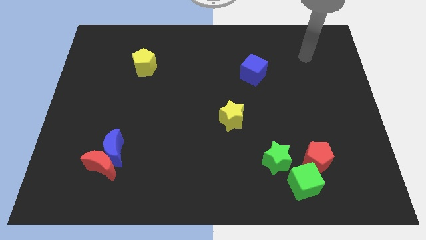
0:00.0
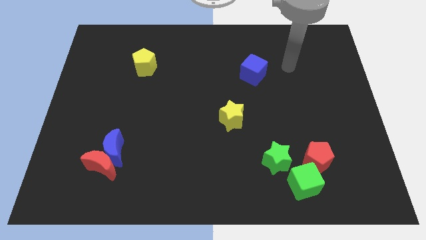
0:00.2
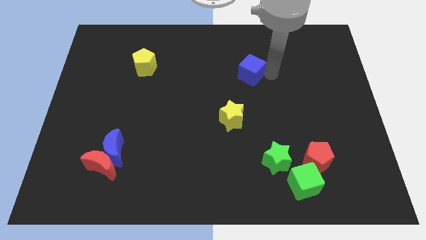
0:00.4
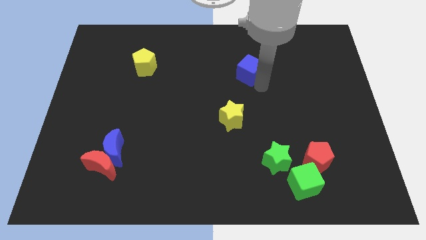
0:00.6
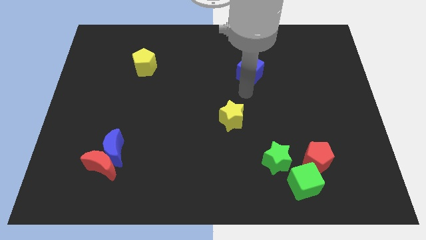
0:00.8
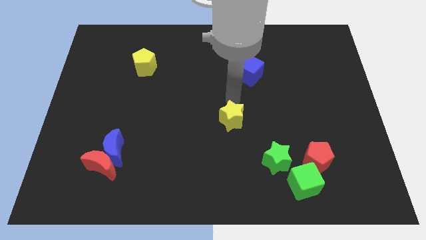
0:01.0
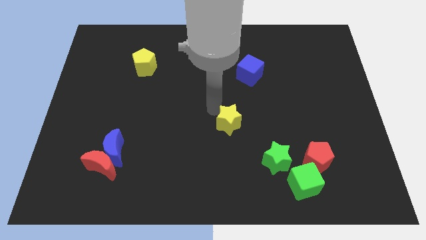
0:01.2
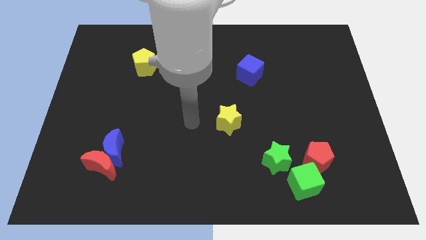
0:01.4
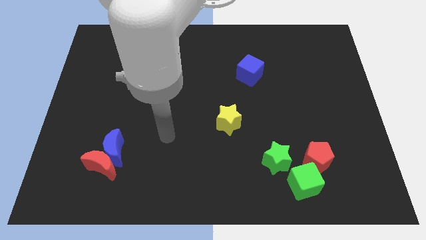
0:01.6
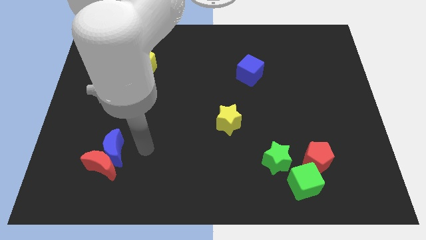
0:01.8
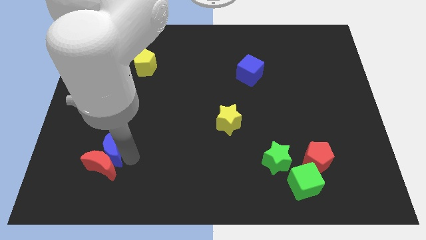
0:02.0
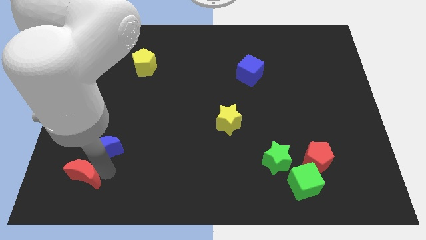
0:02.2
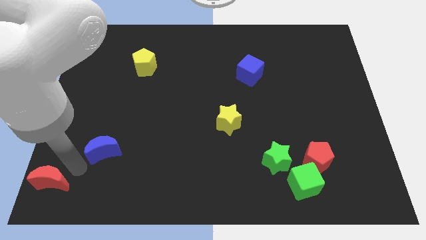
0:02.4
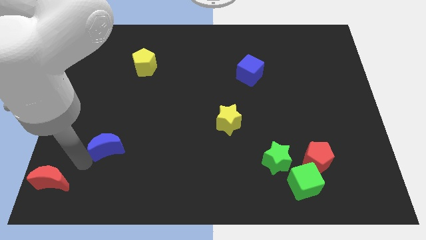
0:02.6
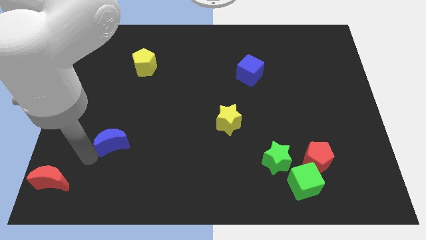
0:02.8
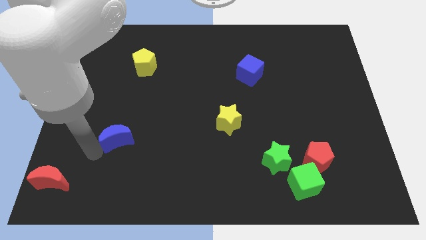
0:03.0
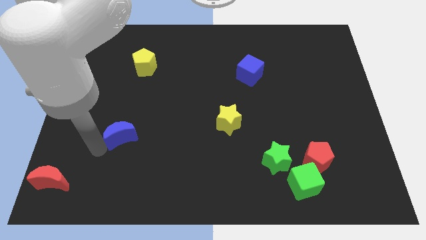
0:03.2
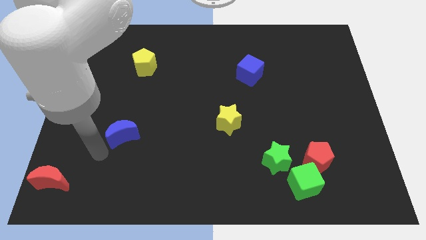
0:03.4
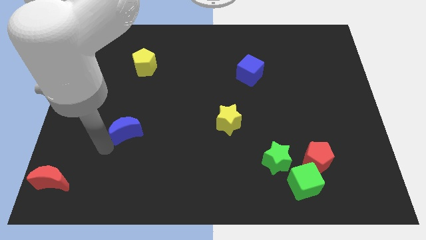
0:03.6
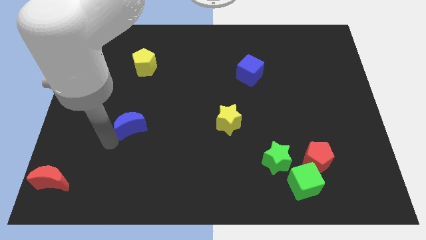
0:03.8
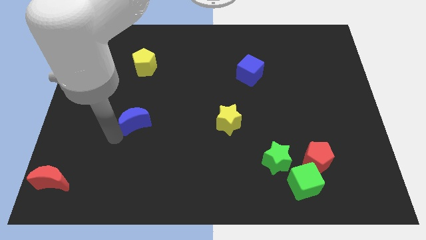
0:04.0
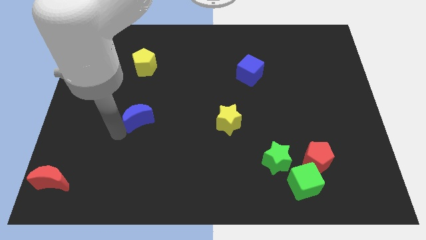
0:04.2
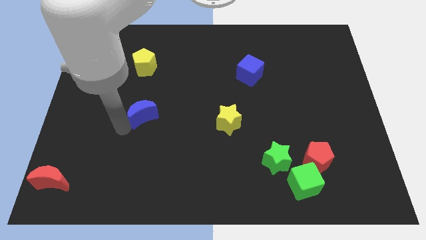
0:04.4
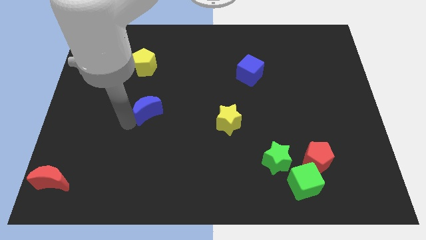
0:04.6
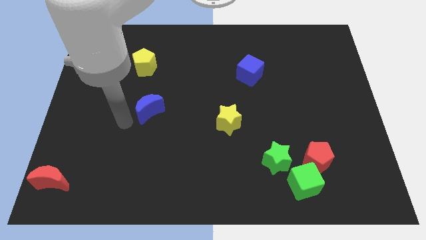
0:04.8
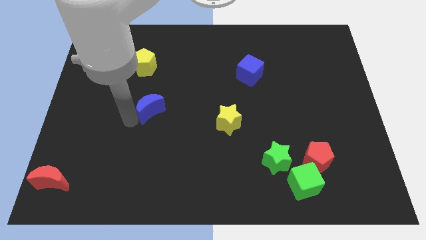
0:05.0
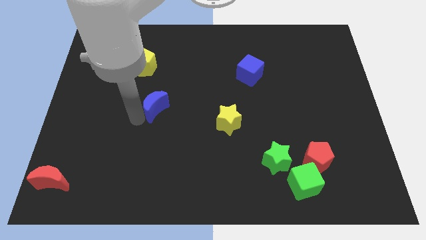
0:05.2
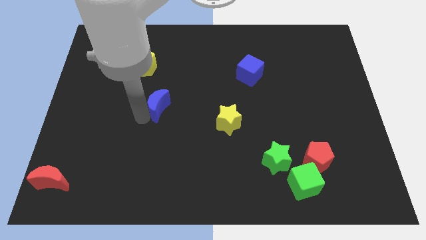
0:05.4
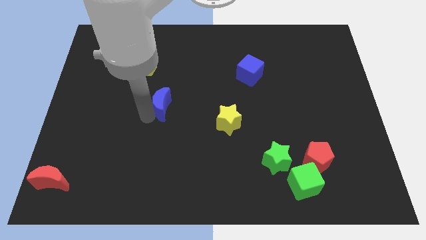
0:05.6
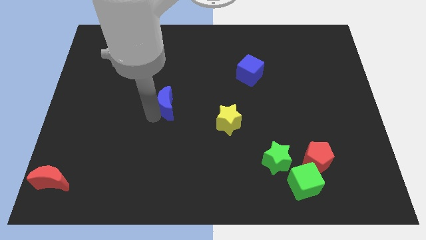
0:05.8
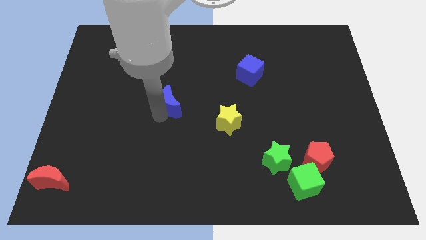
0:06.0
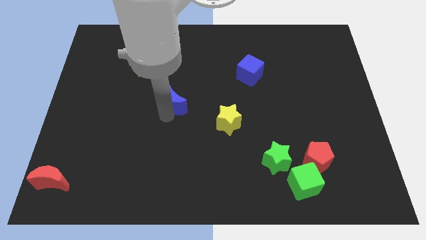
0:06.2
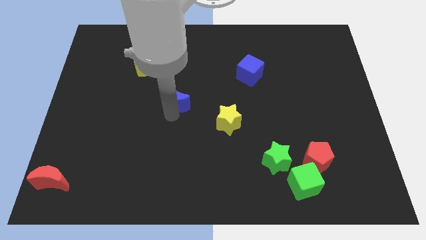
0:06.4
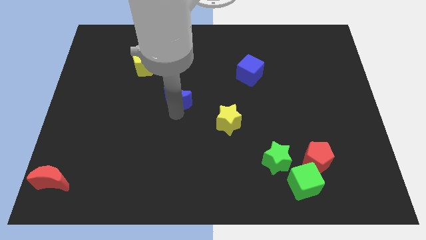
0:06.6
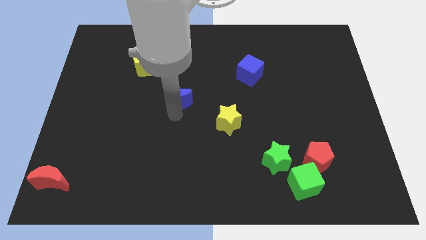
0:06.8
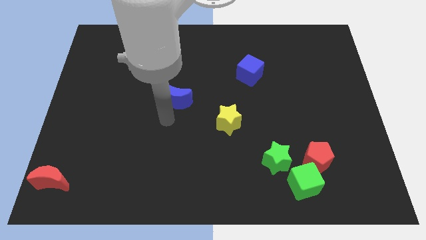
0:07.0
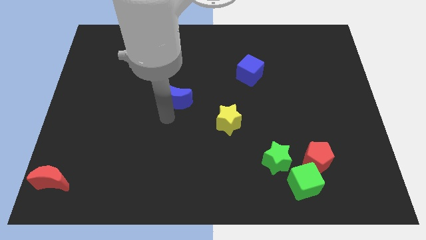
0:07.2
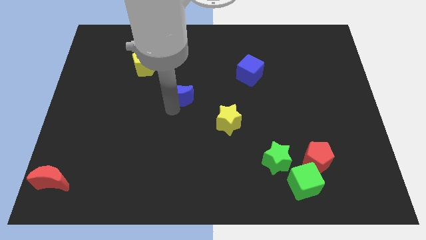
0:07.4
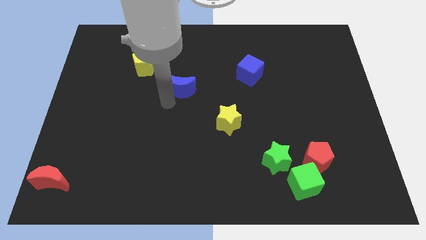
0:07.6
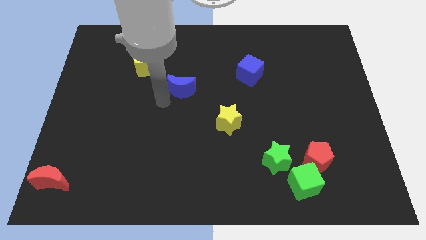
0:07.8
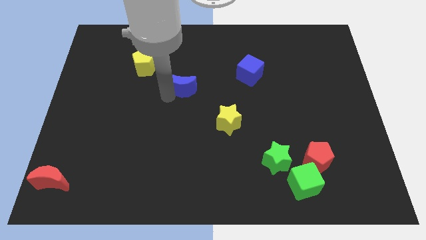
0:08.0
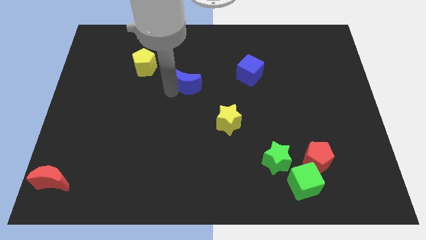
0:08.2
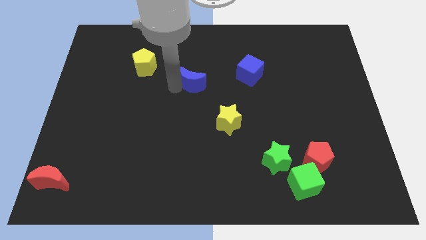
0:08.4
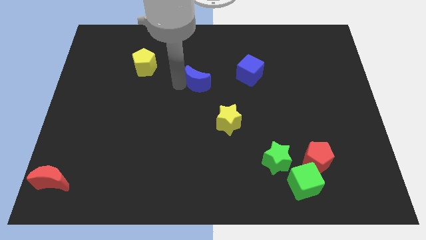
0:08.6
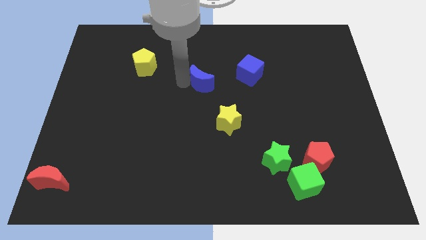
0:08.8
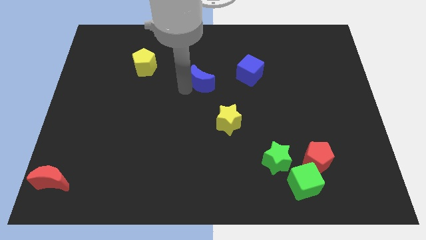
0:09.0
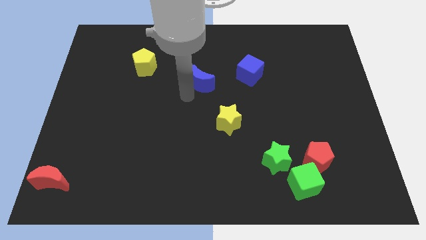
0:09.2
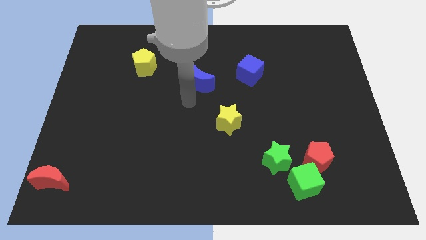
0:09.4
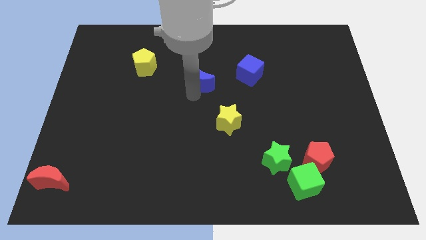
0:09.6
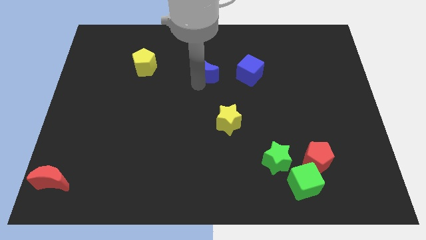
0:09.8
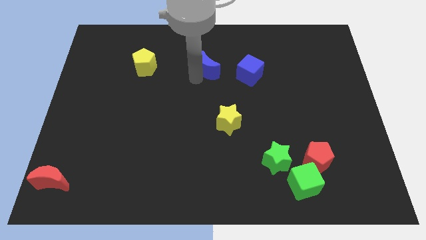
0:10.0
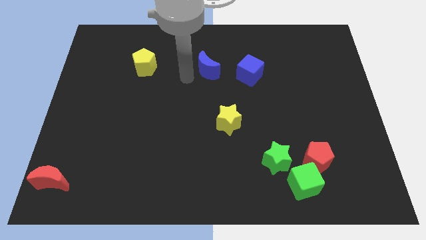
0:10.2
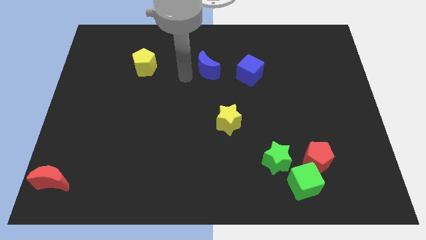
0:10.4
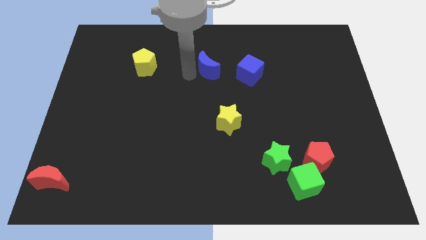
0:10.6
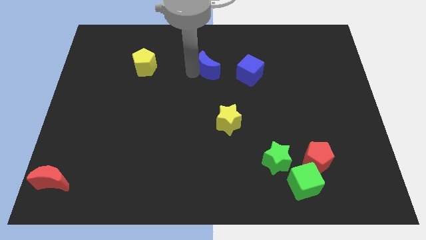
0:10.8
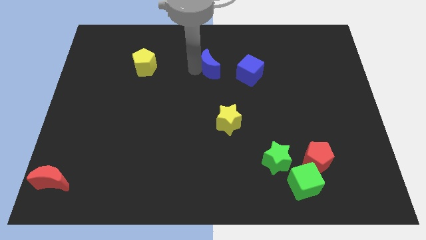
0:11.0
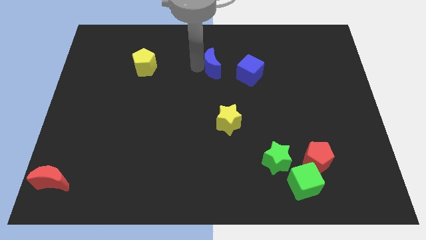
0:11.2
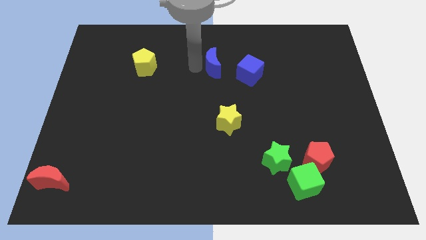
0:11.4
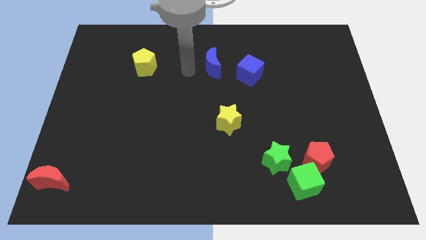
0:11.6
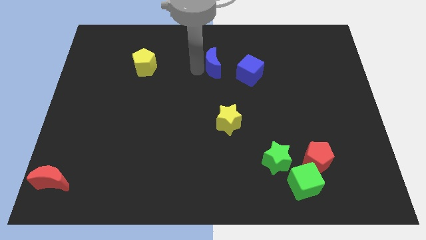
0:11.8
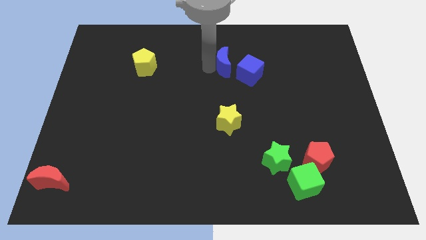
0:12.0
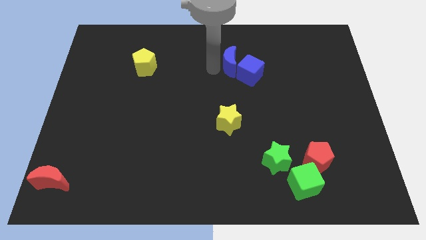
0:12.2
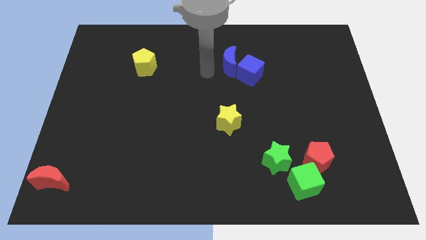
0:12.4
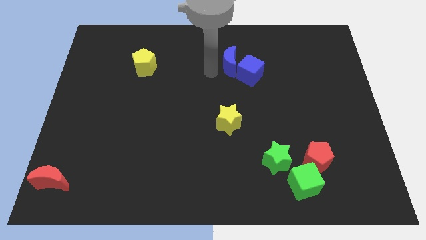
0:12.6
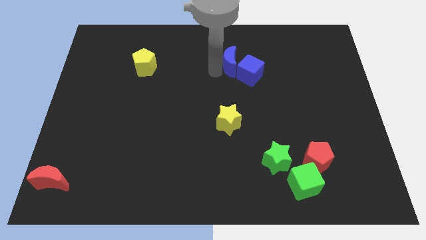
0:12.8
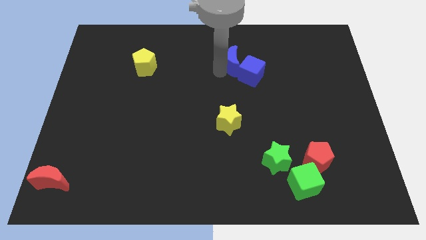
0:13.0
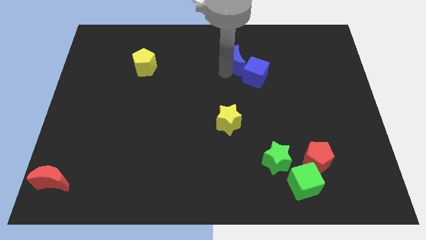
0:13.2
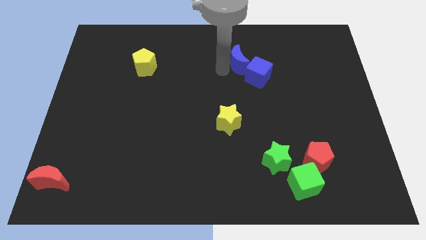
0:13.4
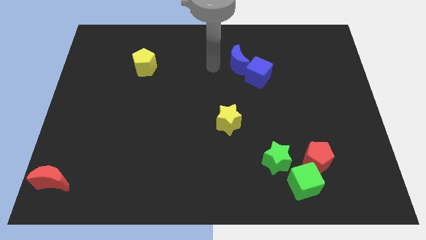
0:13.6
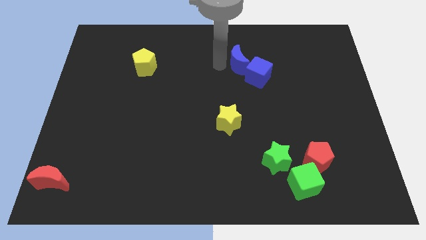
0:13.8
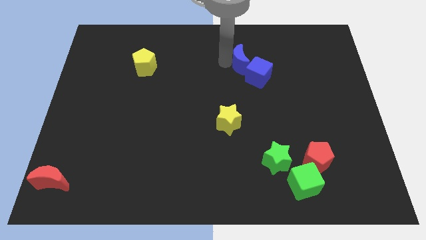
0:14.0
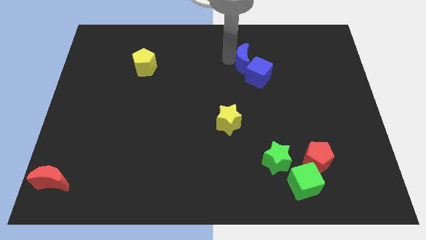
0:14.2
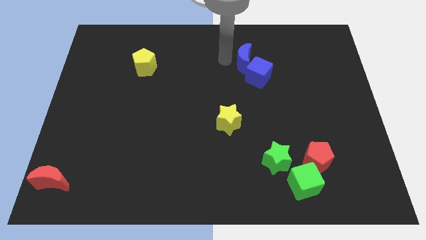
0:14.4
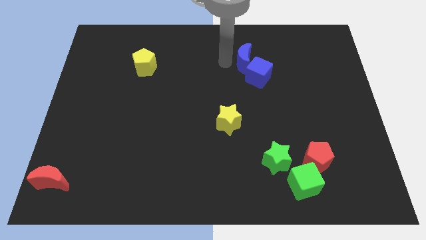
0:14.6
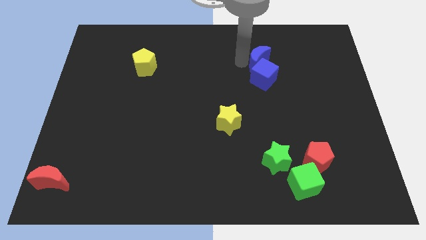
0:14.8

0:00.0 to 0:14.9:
slide the blue moon to the top right of the blue cube
